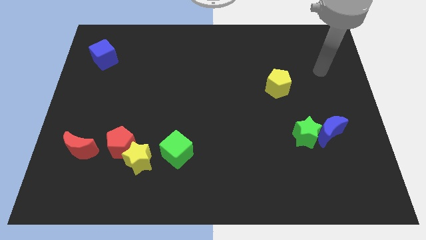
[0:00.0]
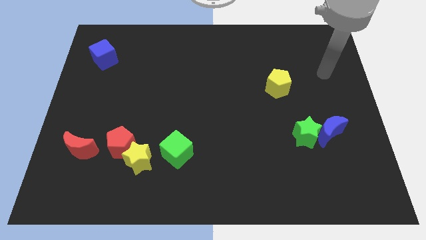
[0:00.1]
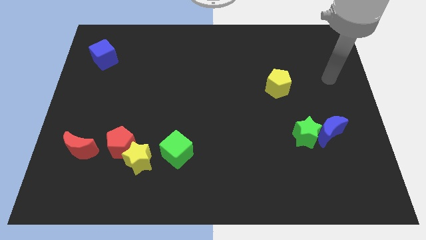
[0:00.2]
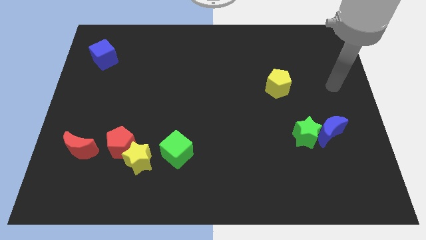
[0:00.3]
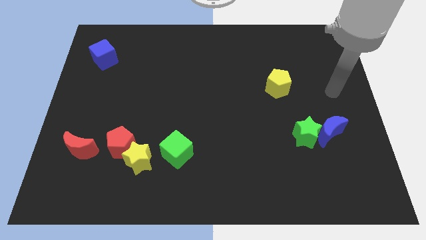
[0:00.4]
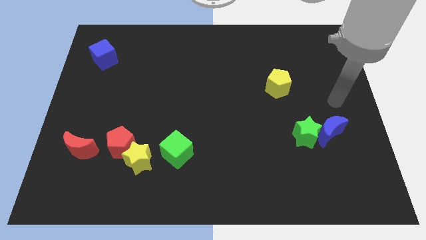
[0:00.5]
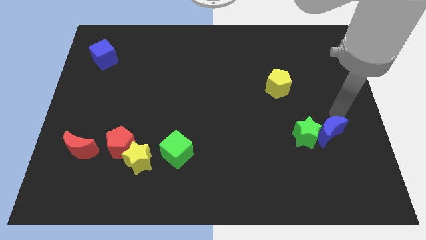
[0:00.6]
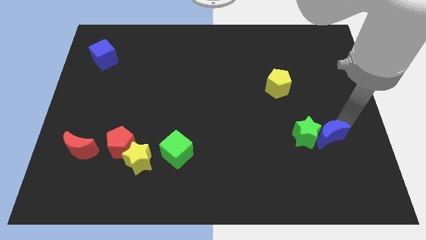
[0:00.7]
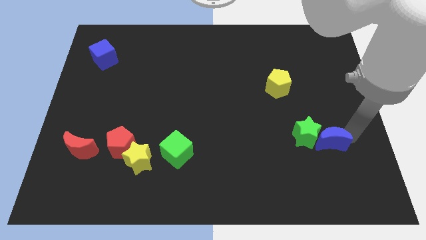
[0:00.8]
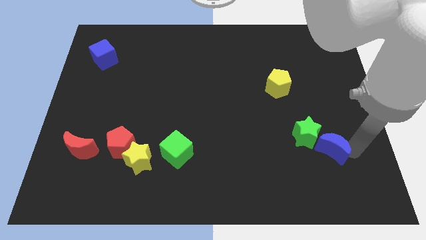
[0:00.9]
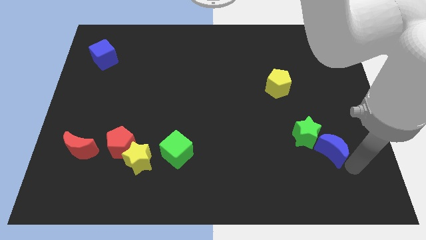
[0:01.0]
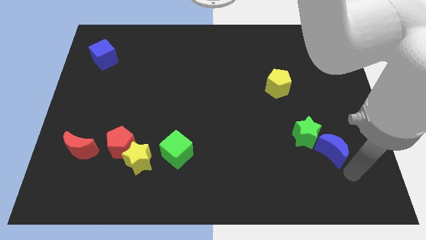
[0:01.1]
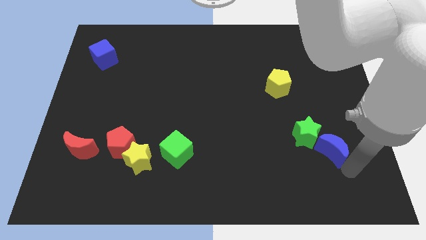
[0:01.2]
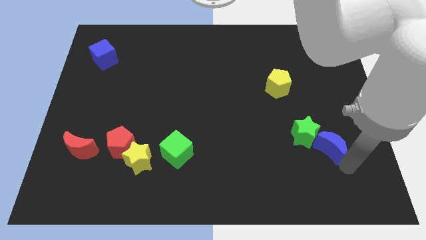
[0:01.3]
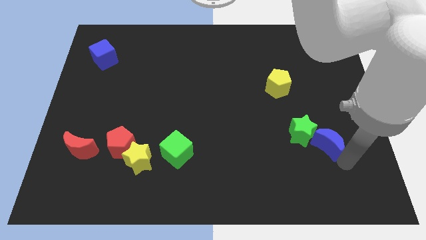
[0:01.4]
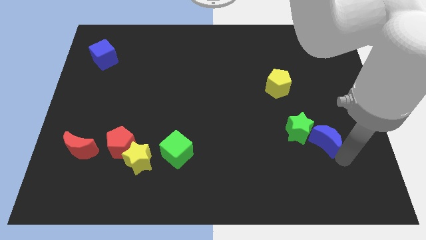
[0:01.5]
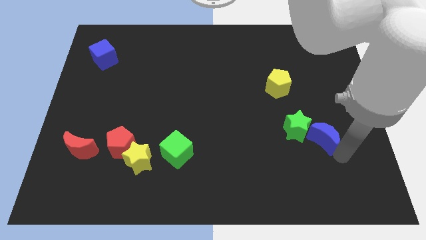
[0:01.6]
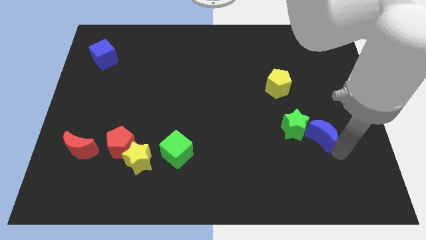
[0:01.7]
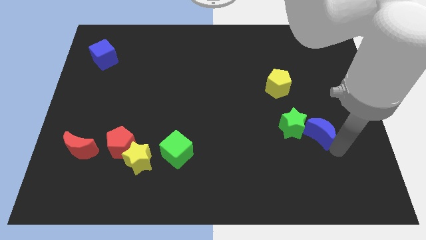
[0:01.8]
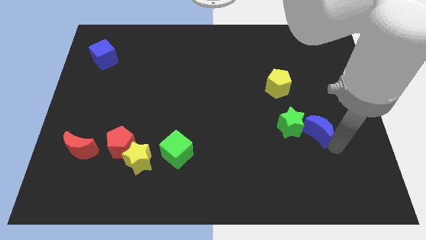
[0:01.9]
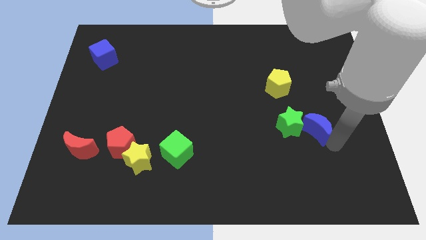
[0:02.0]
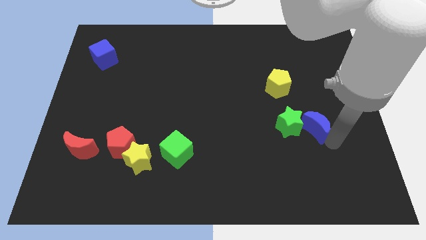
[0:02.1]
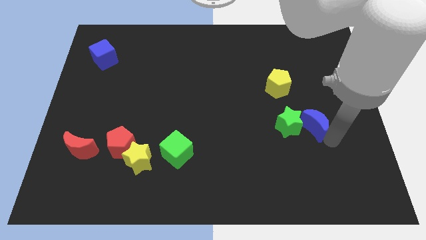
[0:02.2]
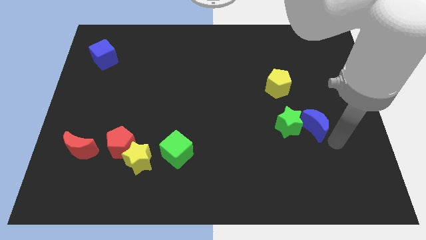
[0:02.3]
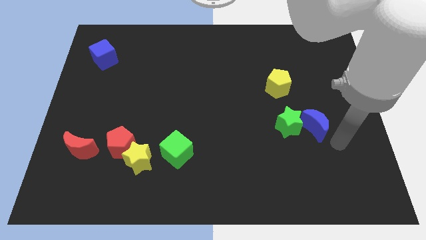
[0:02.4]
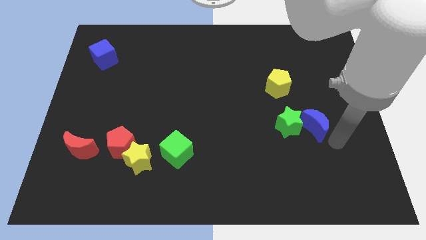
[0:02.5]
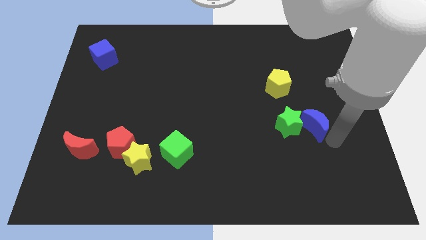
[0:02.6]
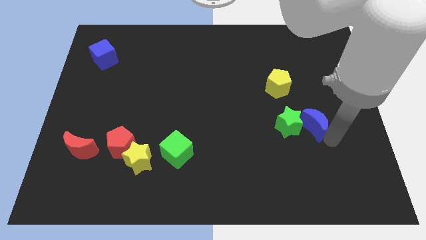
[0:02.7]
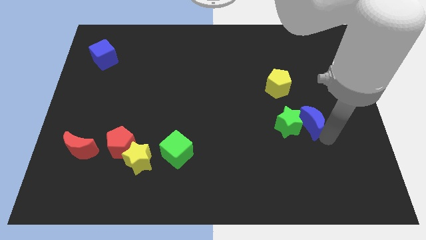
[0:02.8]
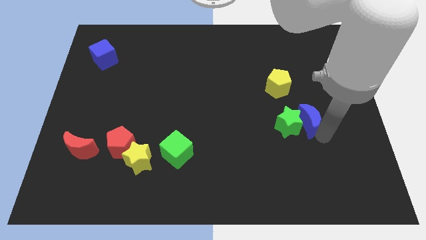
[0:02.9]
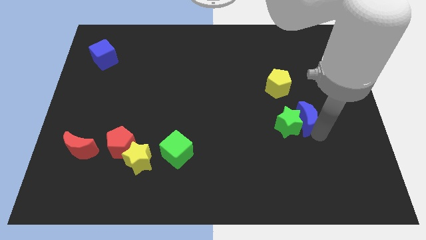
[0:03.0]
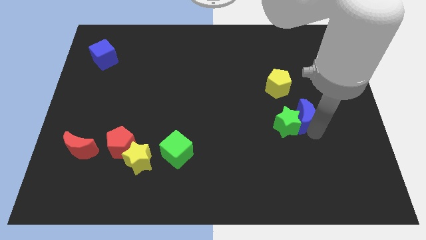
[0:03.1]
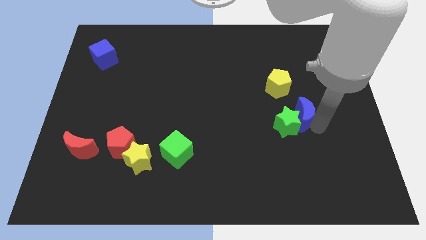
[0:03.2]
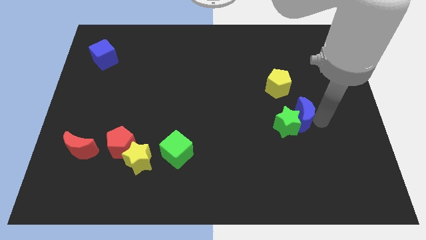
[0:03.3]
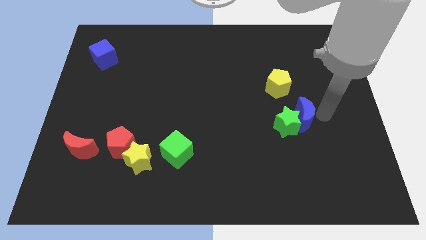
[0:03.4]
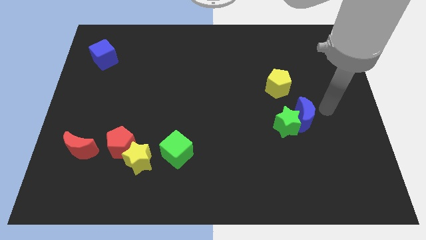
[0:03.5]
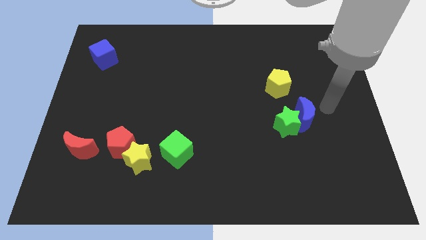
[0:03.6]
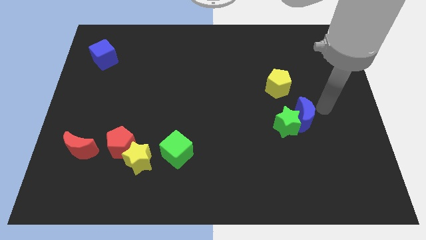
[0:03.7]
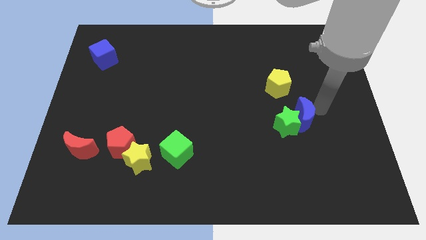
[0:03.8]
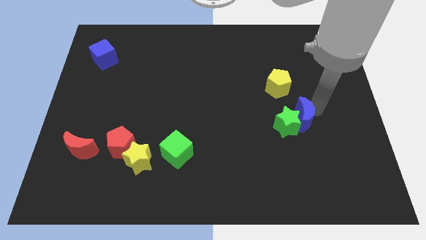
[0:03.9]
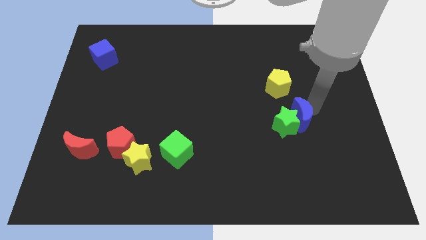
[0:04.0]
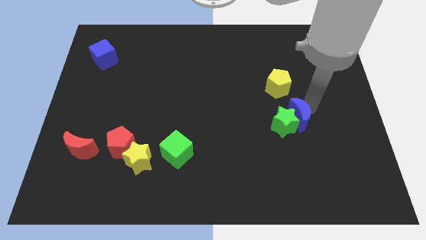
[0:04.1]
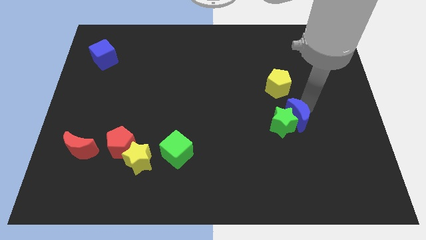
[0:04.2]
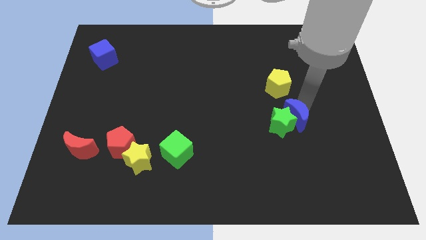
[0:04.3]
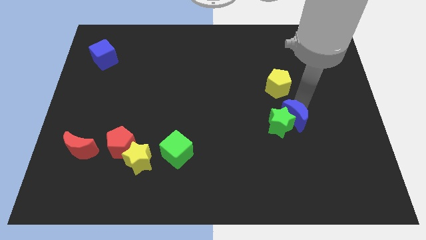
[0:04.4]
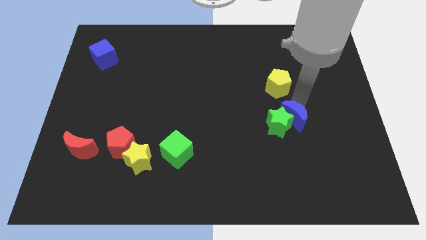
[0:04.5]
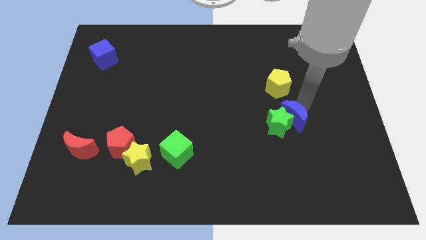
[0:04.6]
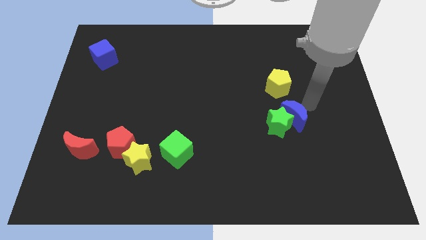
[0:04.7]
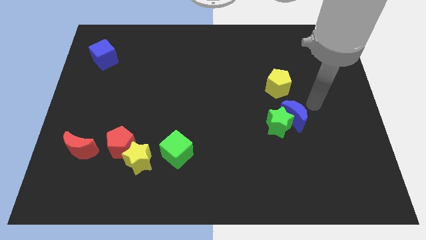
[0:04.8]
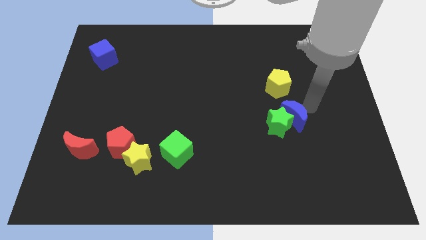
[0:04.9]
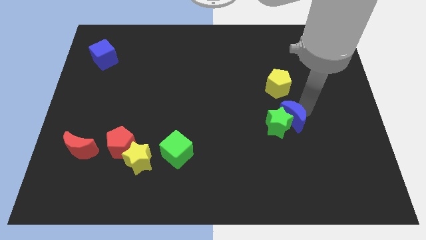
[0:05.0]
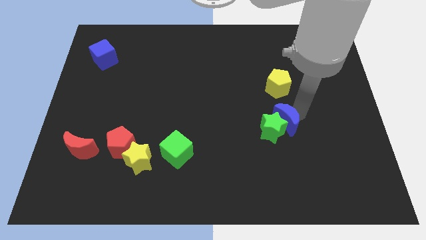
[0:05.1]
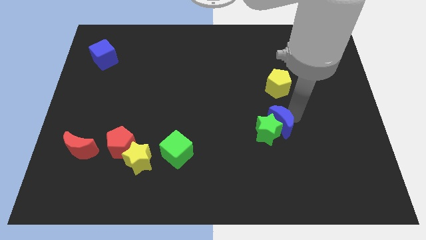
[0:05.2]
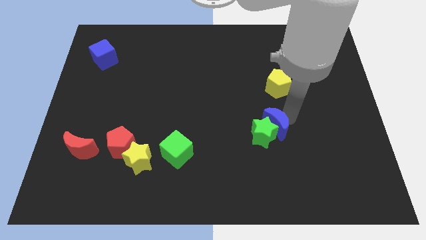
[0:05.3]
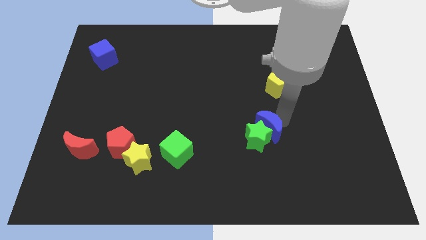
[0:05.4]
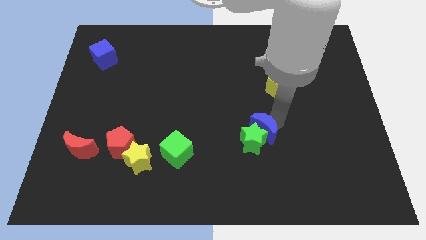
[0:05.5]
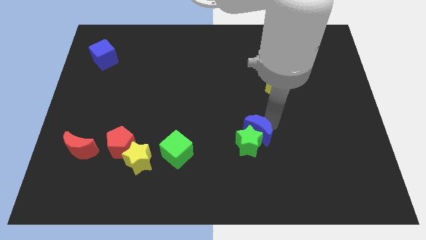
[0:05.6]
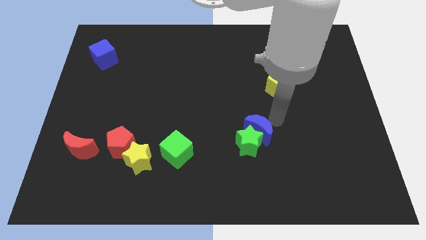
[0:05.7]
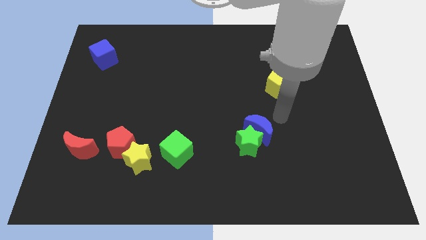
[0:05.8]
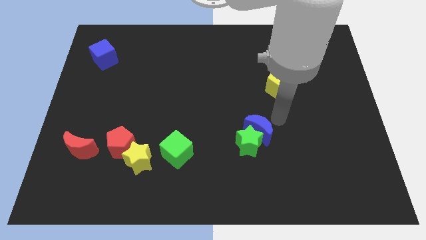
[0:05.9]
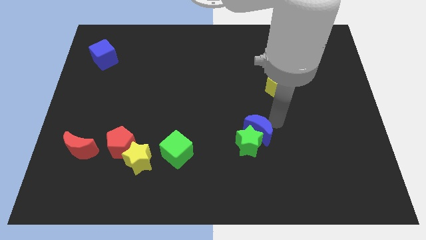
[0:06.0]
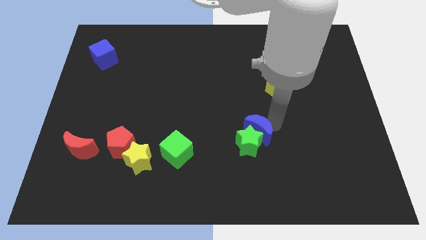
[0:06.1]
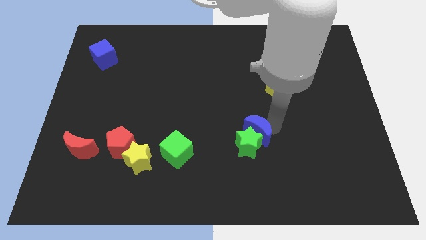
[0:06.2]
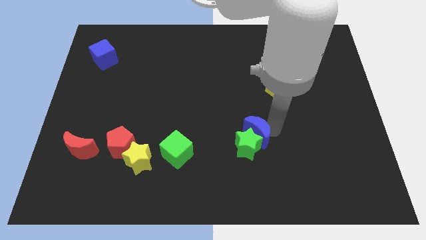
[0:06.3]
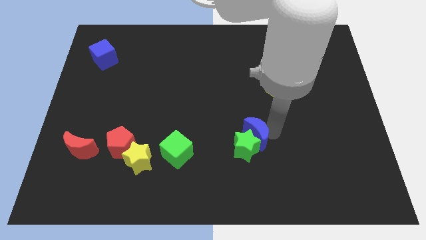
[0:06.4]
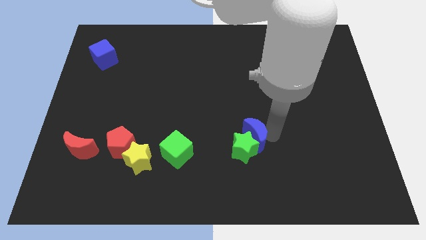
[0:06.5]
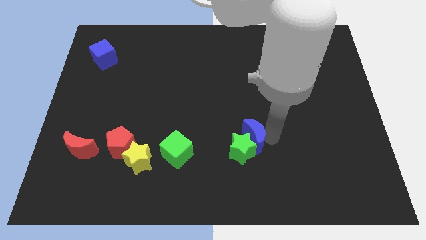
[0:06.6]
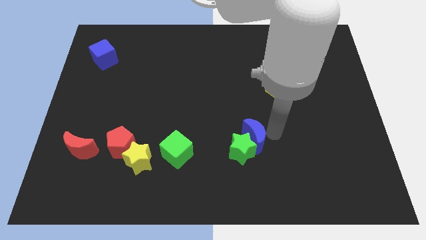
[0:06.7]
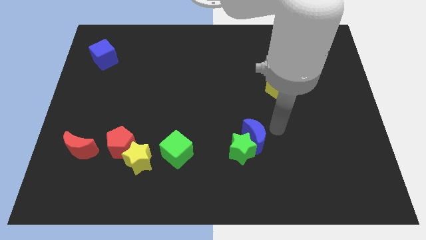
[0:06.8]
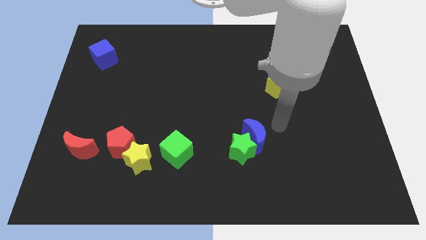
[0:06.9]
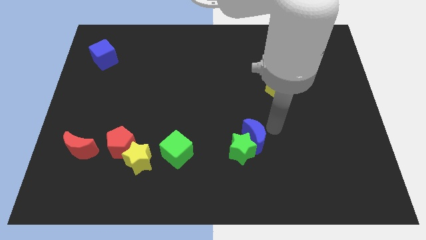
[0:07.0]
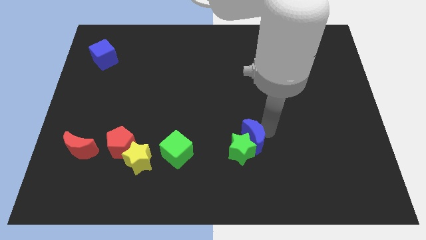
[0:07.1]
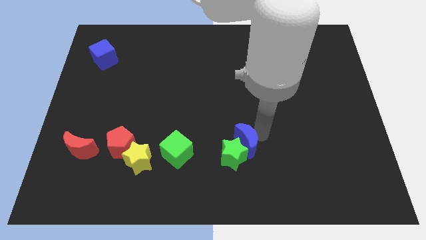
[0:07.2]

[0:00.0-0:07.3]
push the blue moon right of the green cube

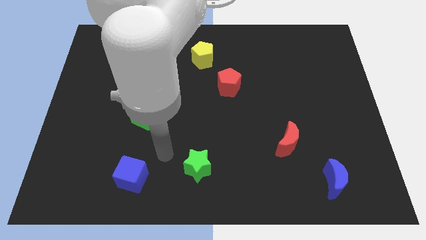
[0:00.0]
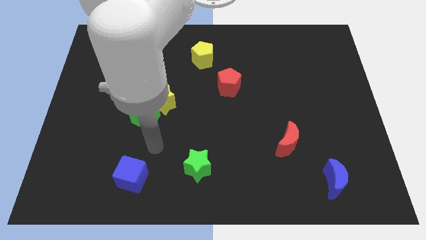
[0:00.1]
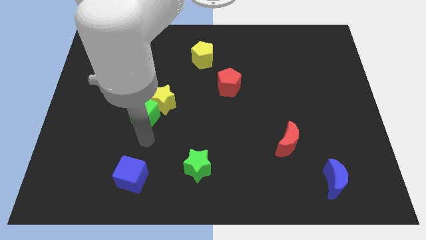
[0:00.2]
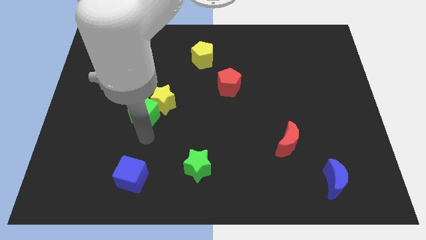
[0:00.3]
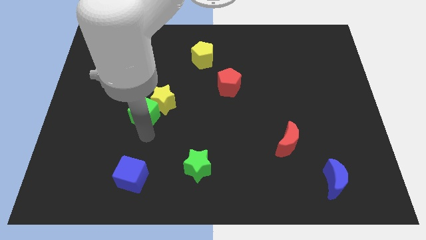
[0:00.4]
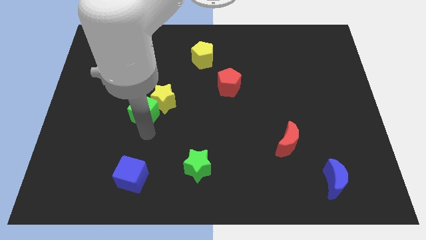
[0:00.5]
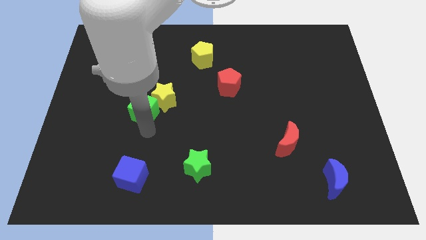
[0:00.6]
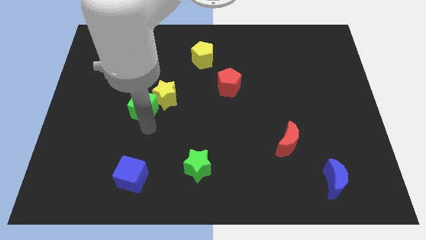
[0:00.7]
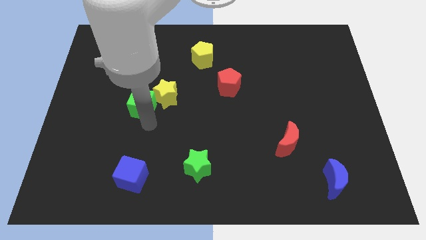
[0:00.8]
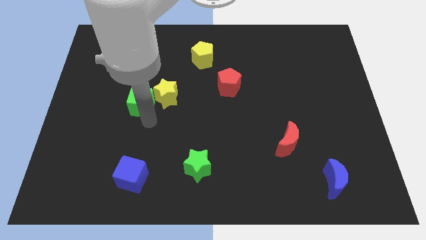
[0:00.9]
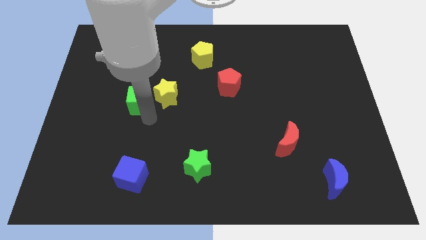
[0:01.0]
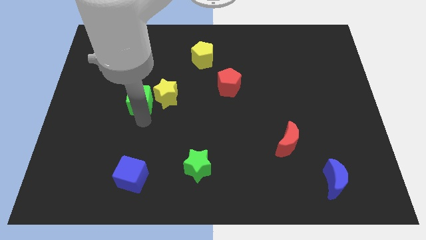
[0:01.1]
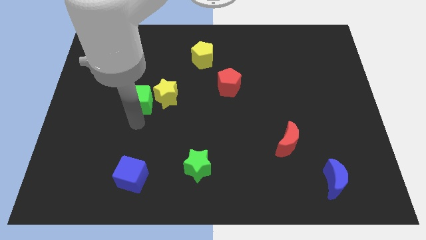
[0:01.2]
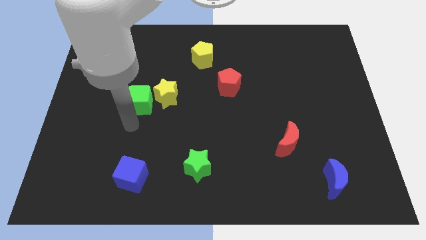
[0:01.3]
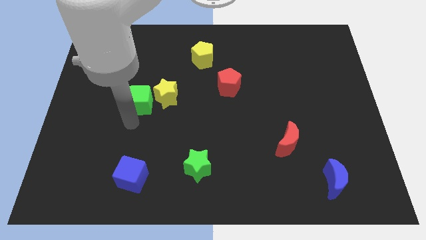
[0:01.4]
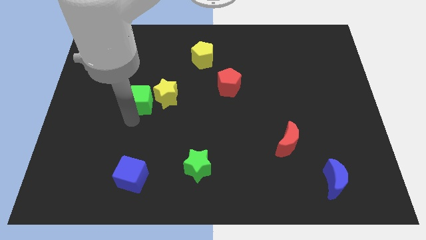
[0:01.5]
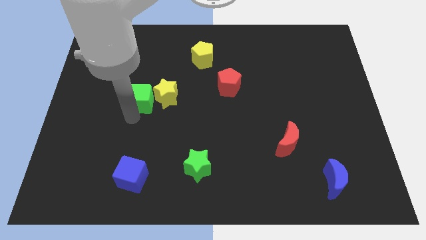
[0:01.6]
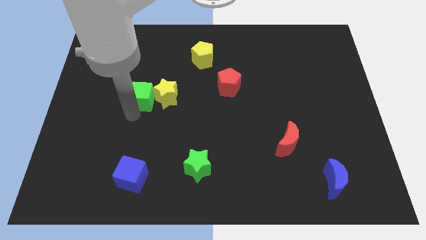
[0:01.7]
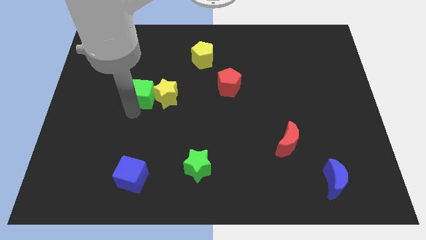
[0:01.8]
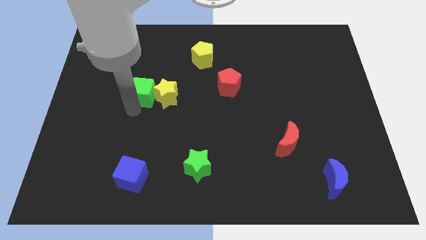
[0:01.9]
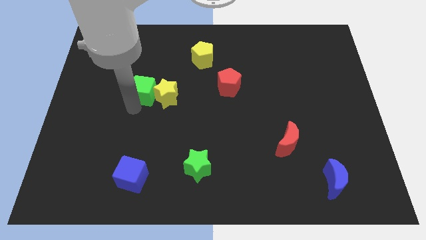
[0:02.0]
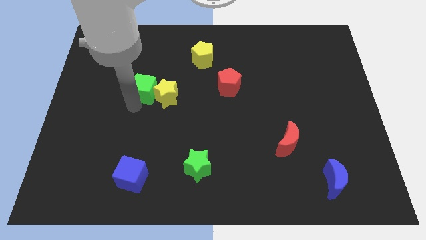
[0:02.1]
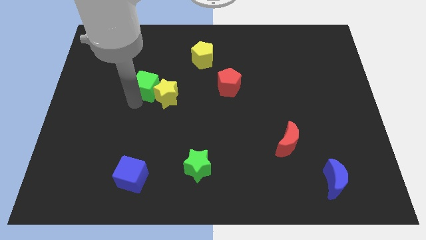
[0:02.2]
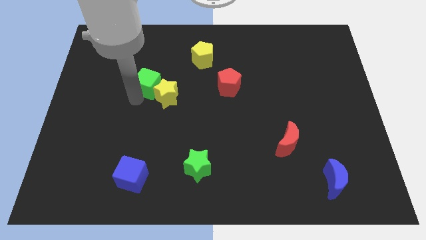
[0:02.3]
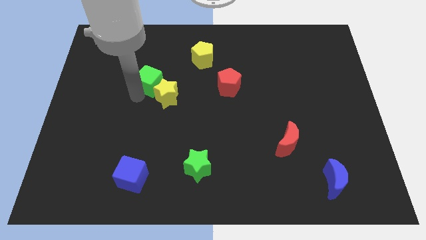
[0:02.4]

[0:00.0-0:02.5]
put the green cube to the top side of the yellow star
